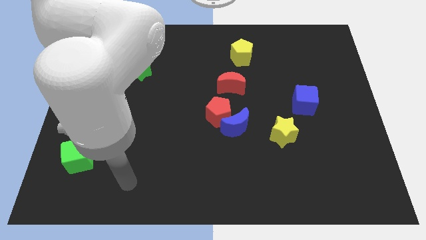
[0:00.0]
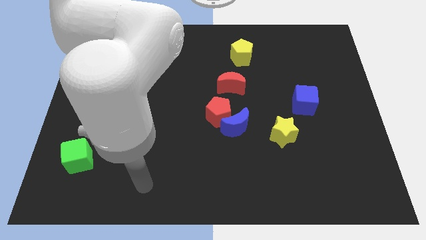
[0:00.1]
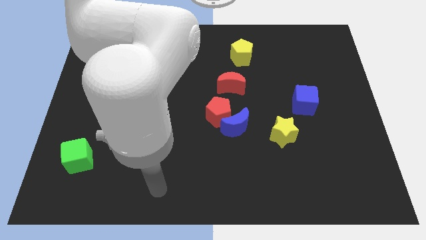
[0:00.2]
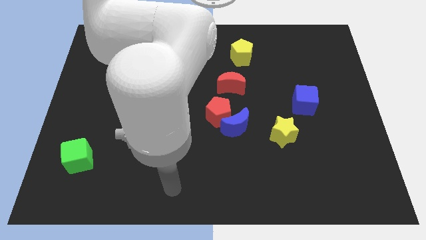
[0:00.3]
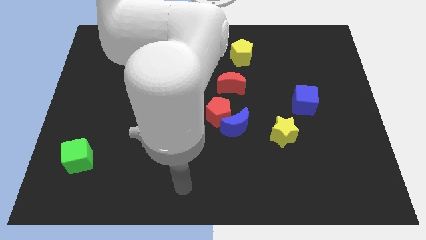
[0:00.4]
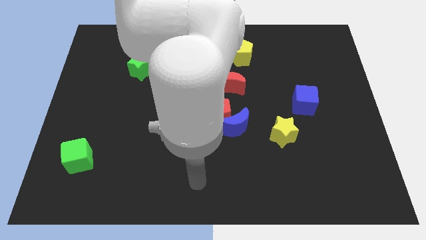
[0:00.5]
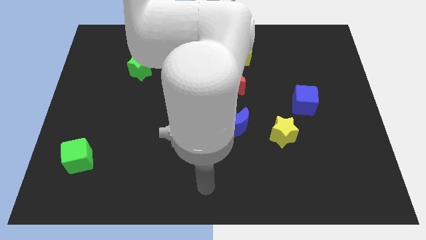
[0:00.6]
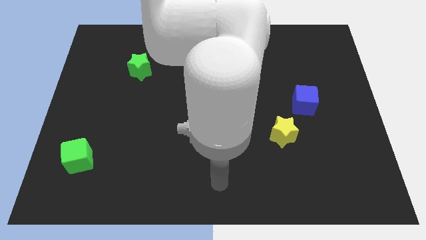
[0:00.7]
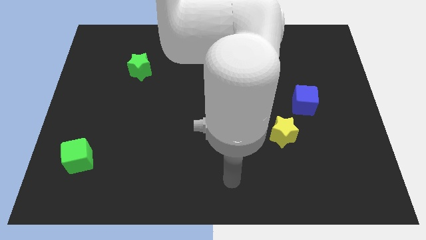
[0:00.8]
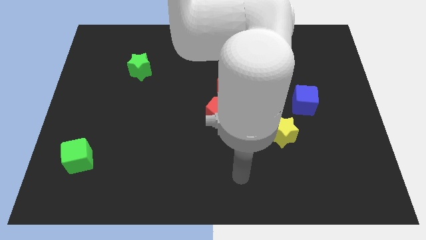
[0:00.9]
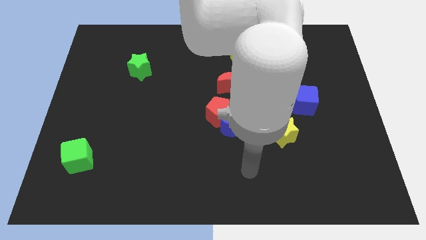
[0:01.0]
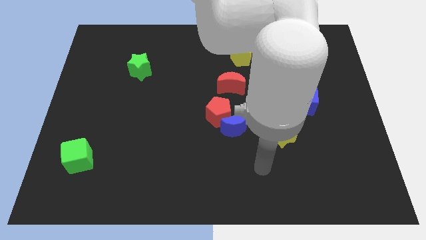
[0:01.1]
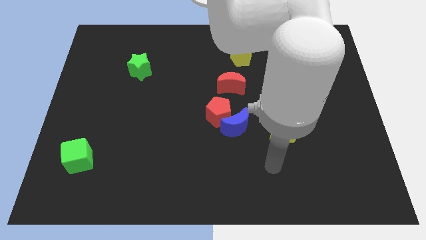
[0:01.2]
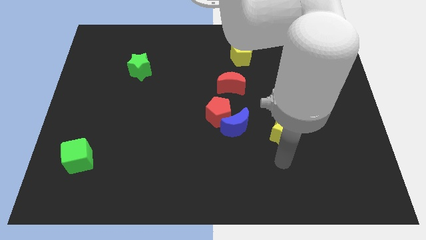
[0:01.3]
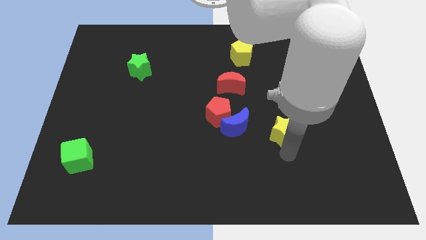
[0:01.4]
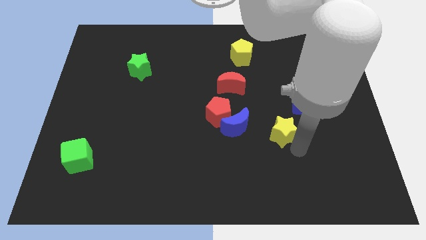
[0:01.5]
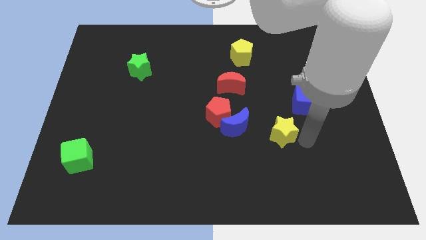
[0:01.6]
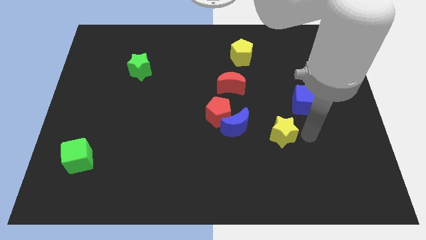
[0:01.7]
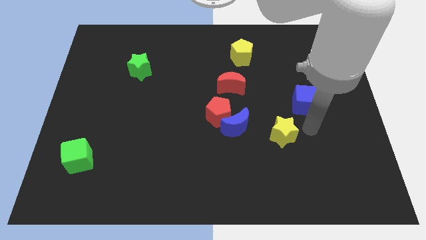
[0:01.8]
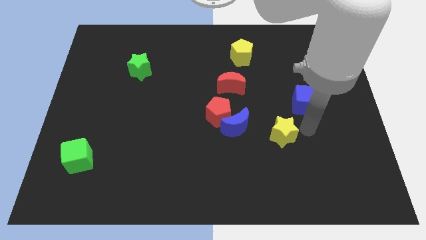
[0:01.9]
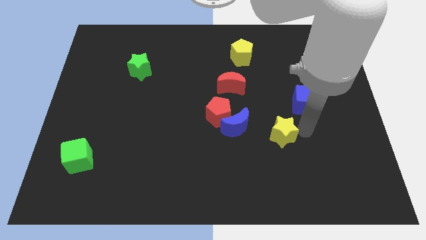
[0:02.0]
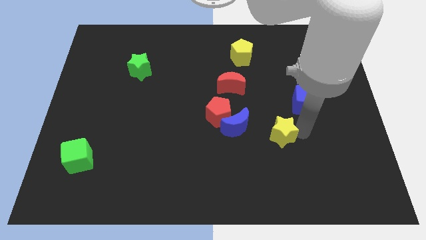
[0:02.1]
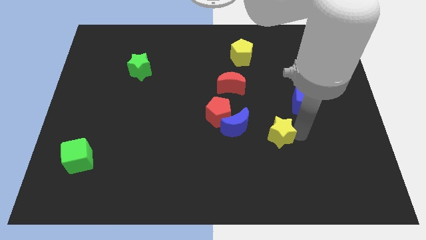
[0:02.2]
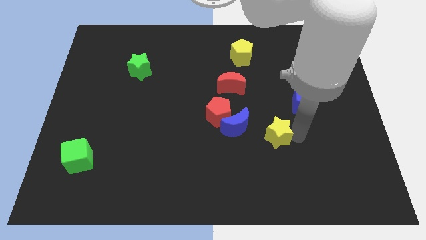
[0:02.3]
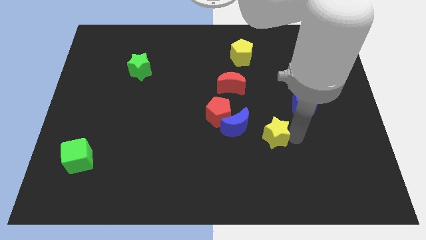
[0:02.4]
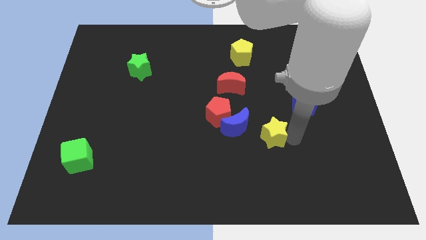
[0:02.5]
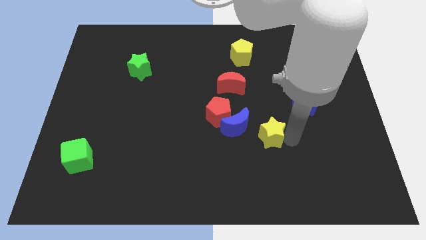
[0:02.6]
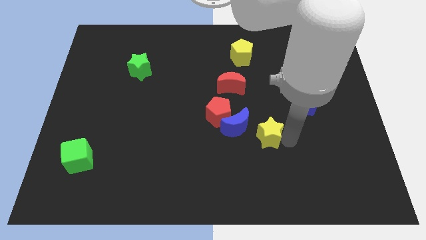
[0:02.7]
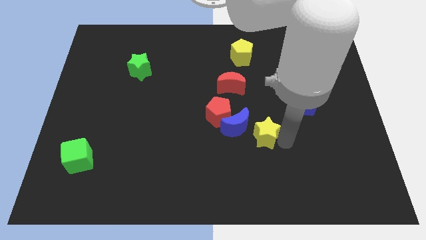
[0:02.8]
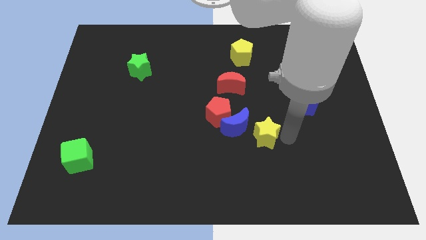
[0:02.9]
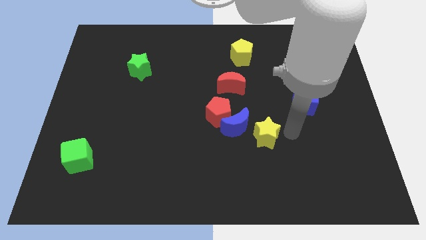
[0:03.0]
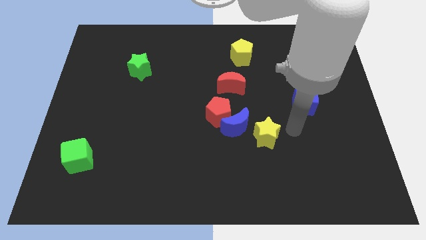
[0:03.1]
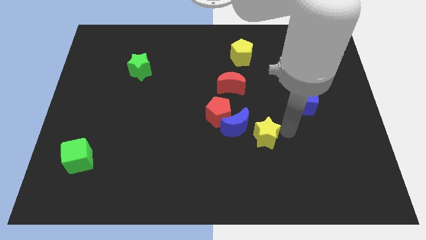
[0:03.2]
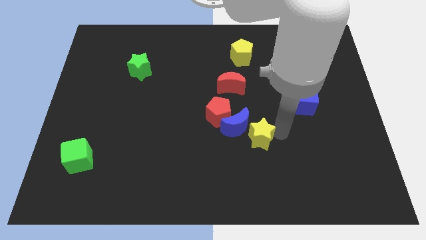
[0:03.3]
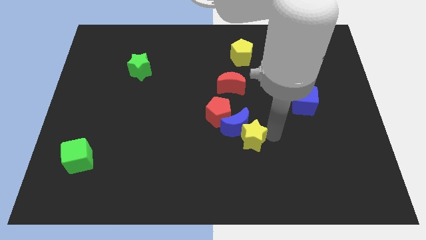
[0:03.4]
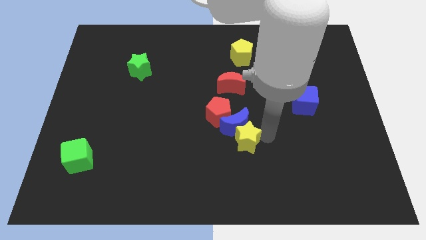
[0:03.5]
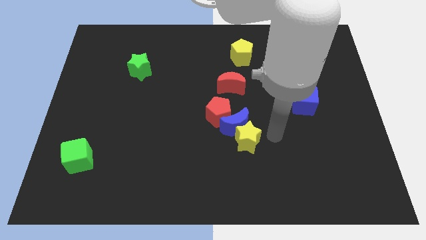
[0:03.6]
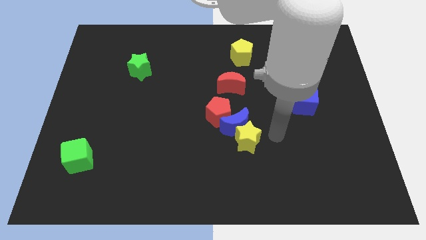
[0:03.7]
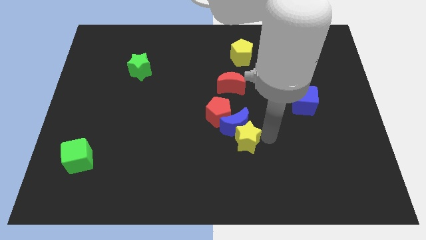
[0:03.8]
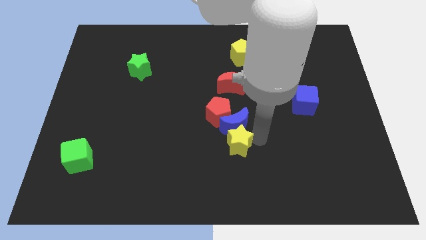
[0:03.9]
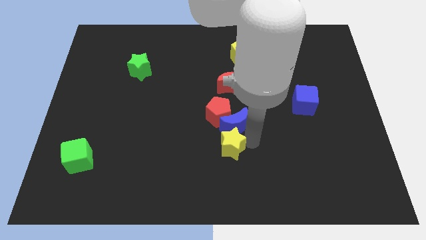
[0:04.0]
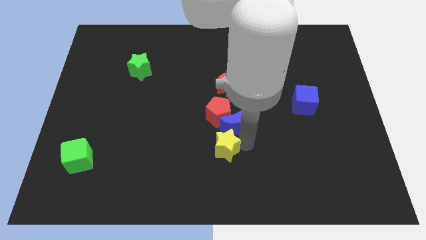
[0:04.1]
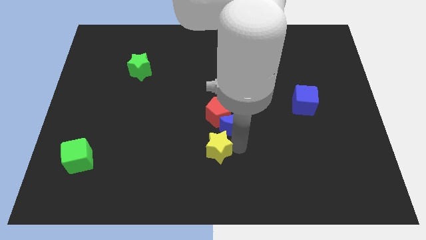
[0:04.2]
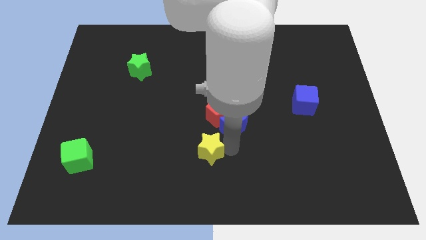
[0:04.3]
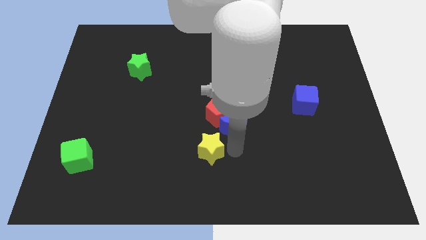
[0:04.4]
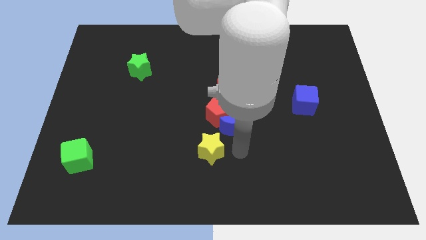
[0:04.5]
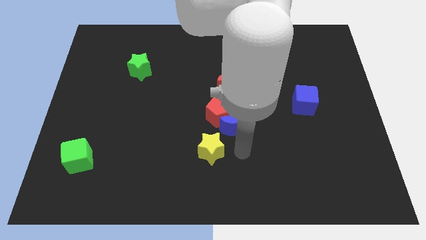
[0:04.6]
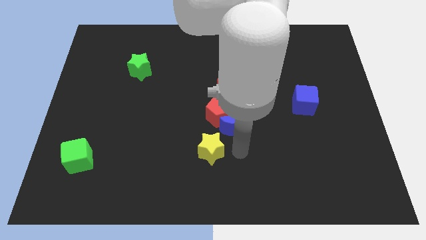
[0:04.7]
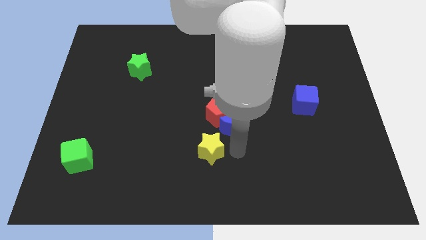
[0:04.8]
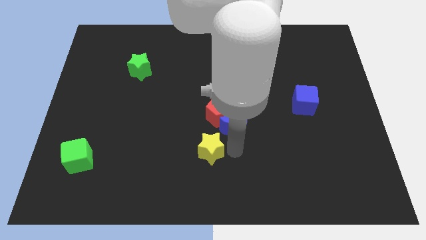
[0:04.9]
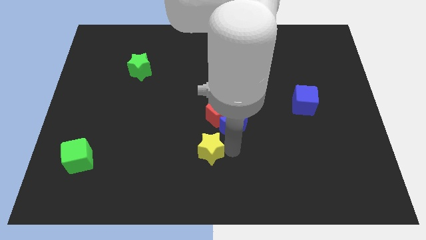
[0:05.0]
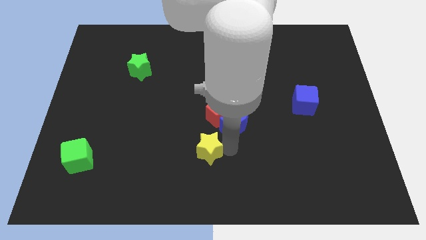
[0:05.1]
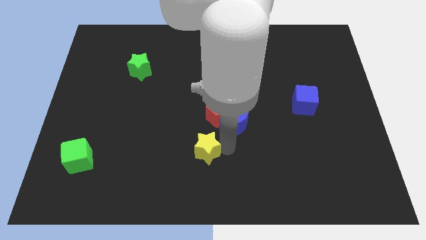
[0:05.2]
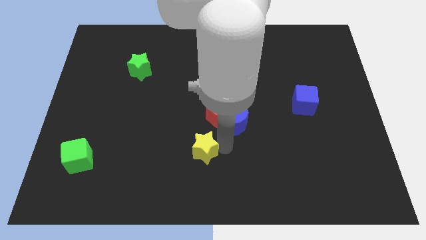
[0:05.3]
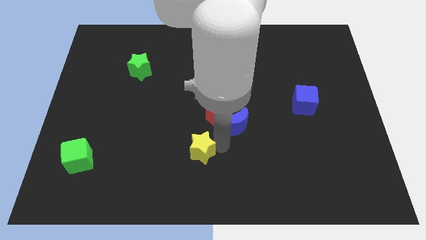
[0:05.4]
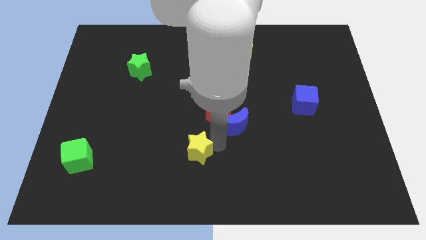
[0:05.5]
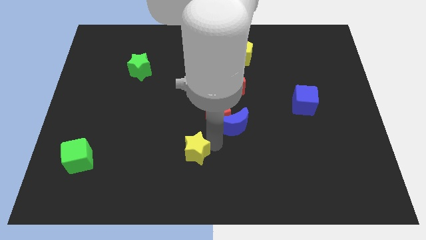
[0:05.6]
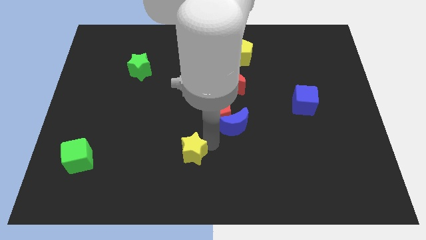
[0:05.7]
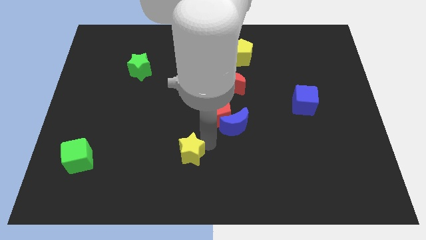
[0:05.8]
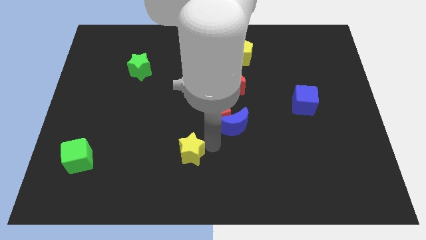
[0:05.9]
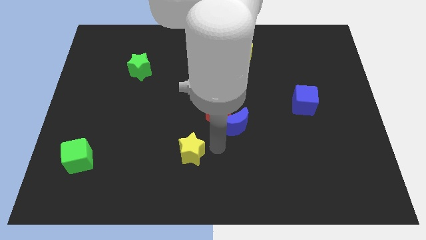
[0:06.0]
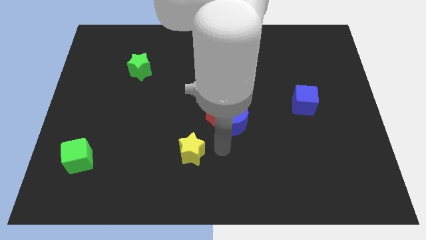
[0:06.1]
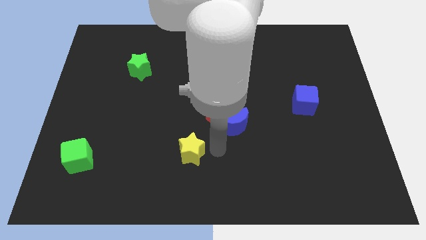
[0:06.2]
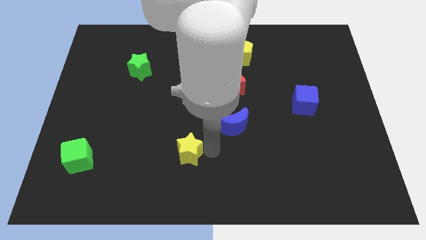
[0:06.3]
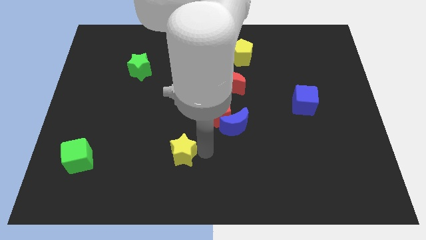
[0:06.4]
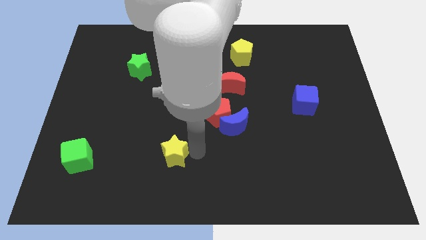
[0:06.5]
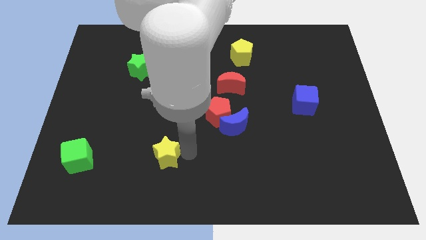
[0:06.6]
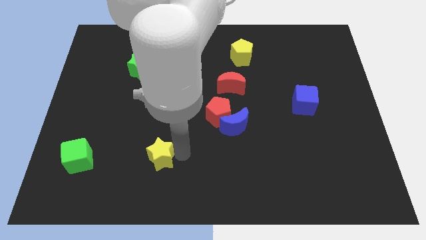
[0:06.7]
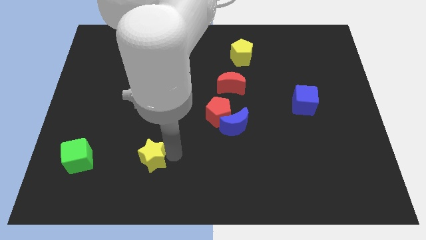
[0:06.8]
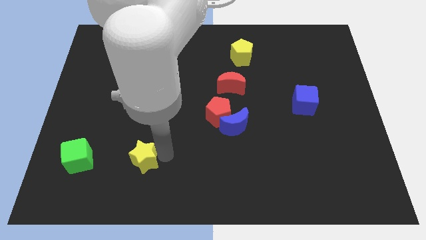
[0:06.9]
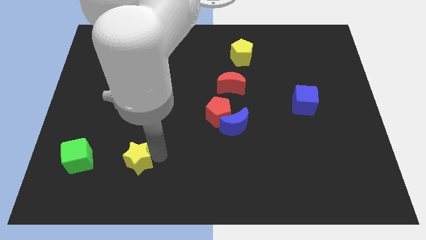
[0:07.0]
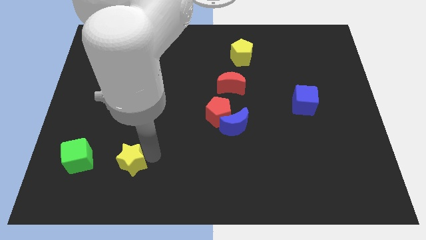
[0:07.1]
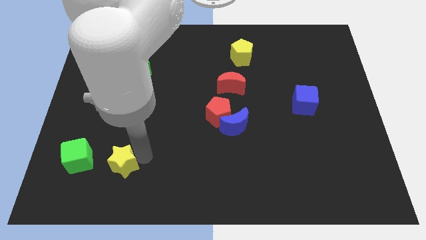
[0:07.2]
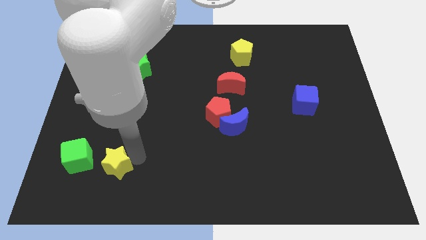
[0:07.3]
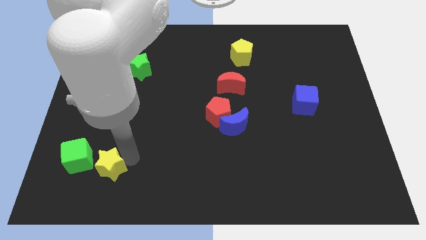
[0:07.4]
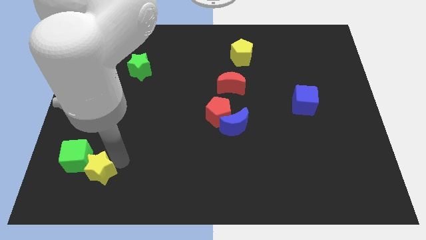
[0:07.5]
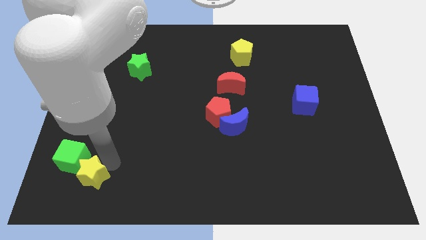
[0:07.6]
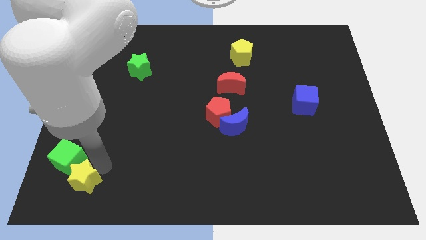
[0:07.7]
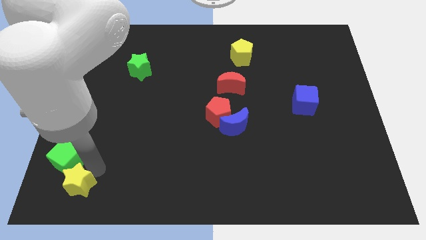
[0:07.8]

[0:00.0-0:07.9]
push the yellow star to the bottom left of the board
